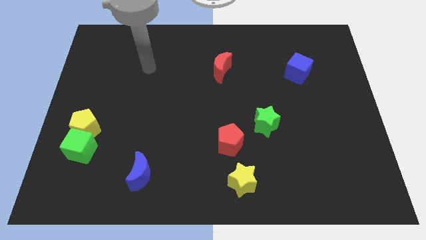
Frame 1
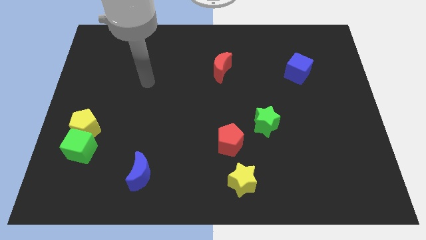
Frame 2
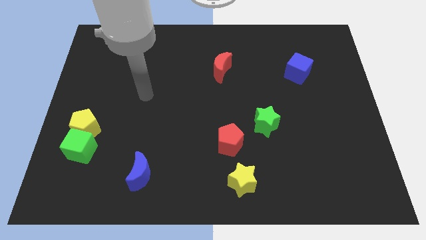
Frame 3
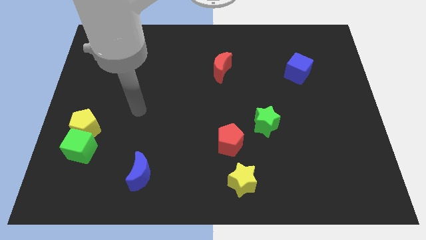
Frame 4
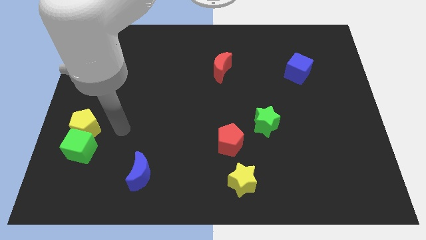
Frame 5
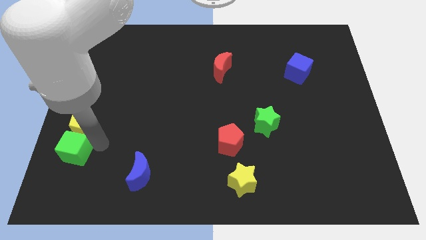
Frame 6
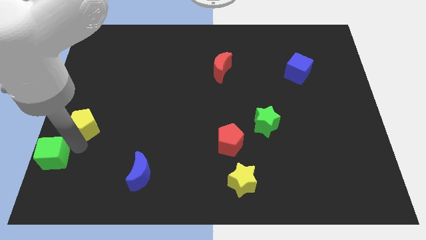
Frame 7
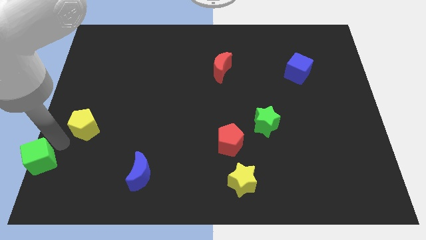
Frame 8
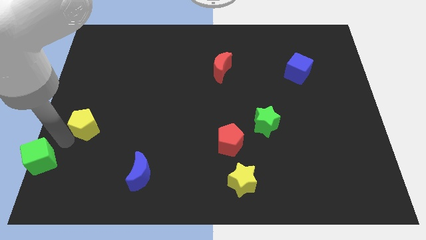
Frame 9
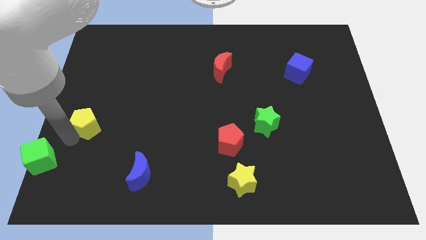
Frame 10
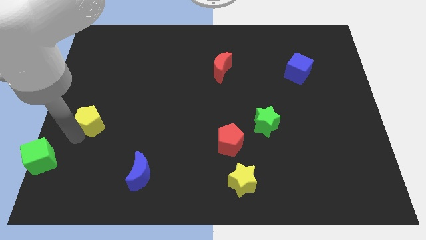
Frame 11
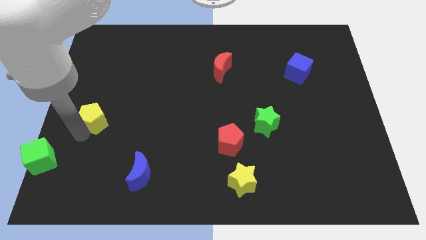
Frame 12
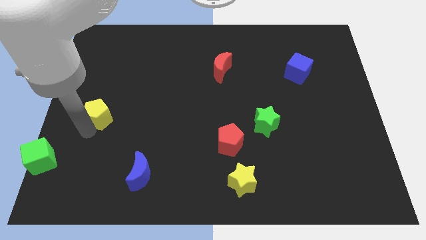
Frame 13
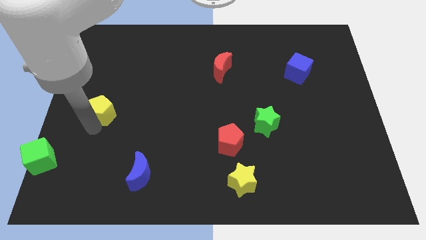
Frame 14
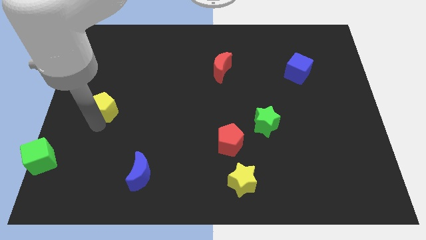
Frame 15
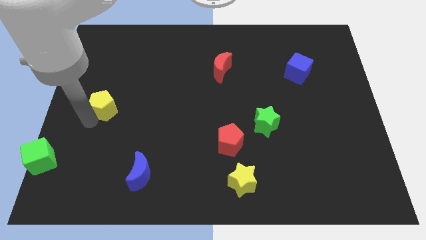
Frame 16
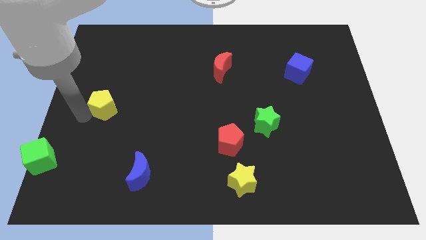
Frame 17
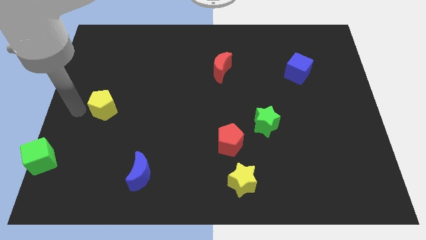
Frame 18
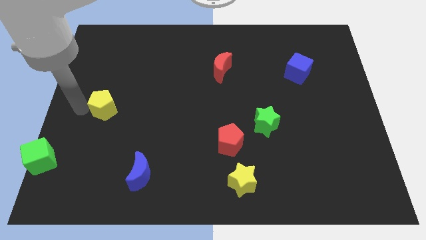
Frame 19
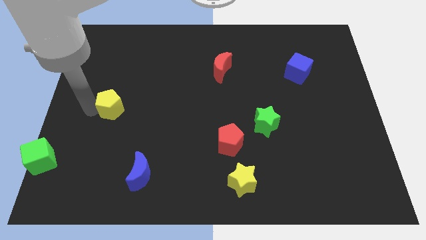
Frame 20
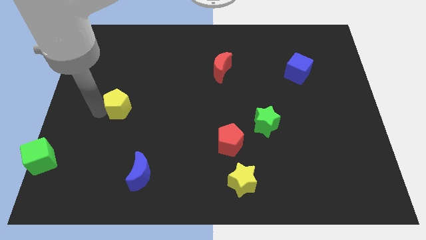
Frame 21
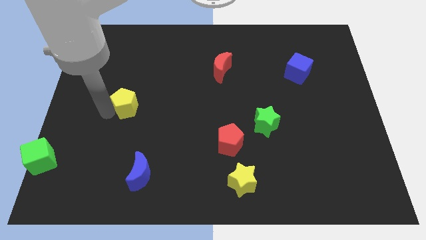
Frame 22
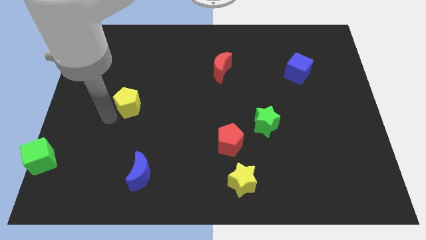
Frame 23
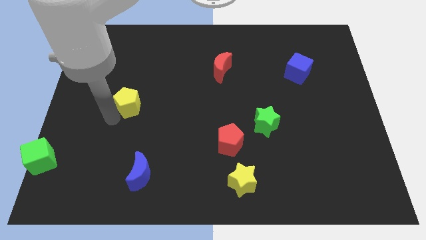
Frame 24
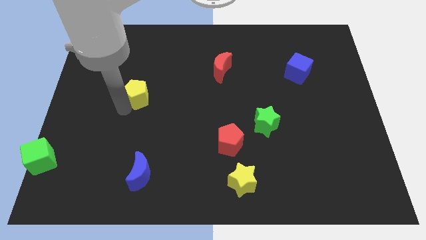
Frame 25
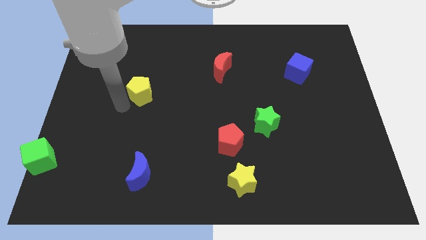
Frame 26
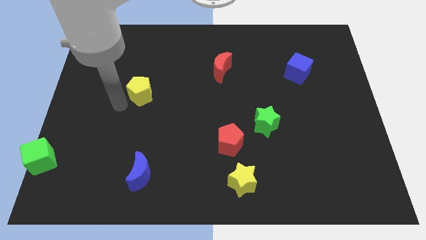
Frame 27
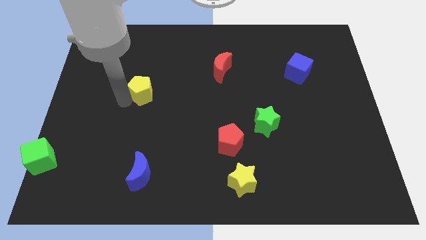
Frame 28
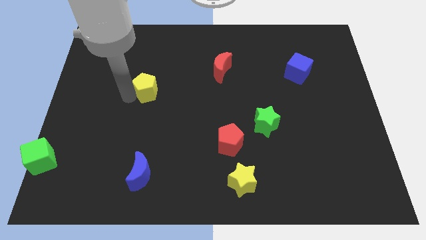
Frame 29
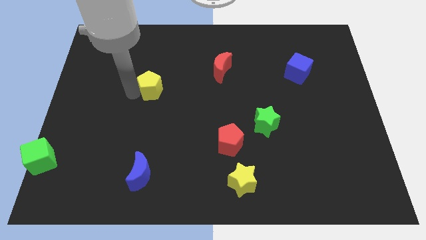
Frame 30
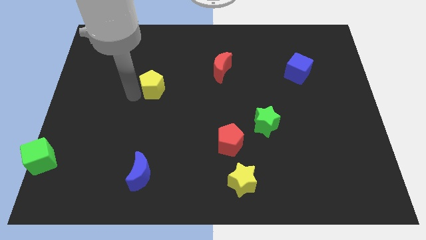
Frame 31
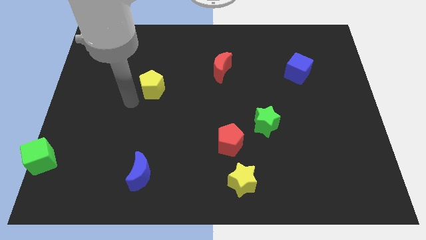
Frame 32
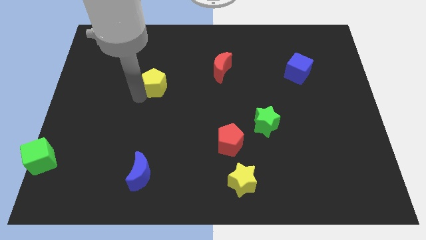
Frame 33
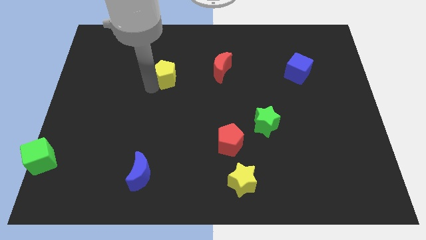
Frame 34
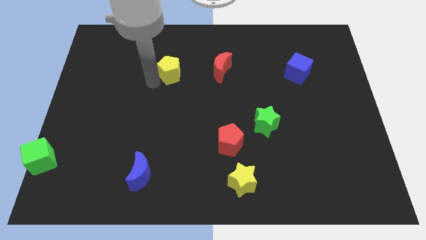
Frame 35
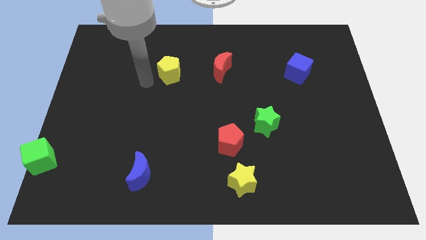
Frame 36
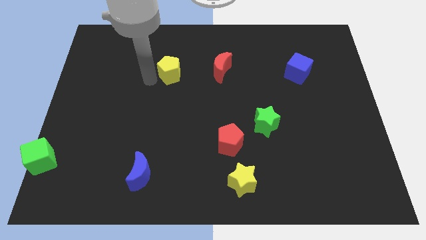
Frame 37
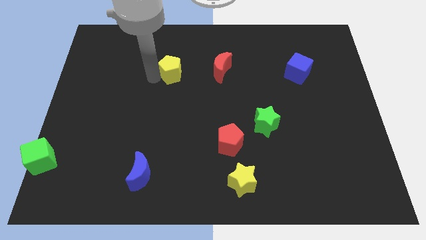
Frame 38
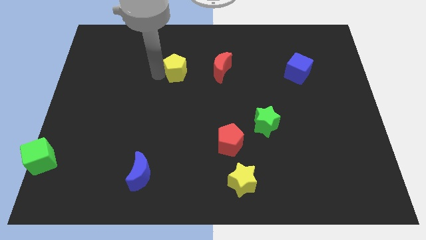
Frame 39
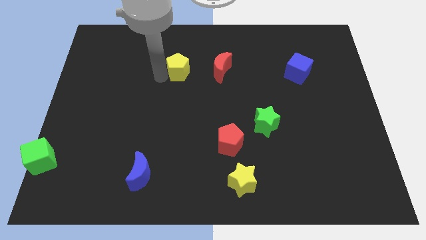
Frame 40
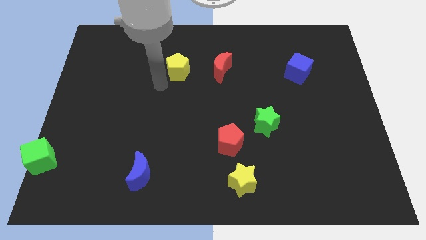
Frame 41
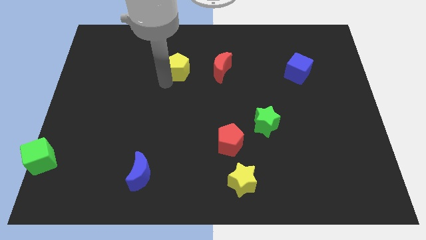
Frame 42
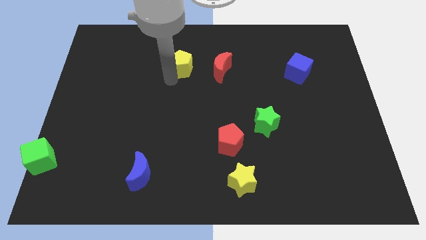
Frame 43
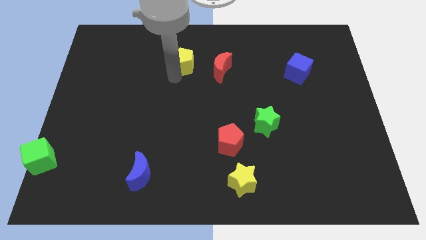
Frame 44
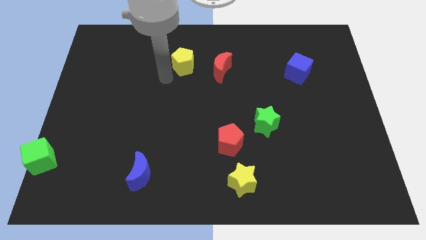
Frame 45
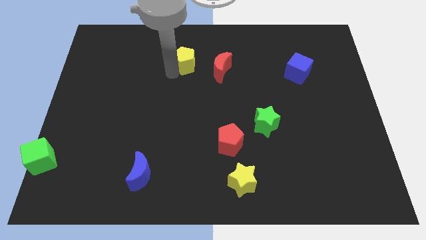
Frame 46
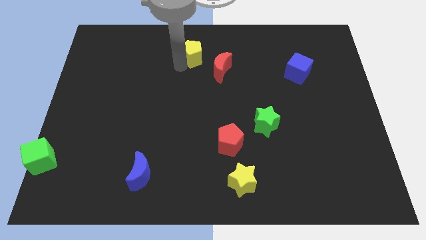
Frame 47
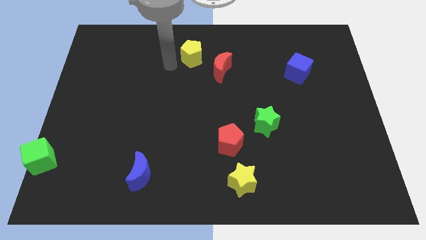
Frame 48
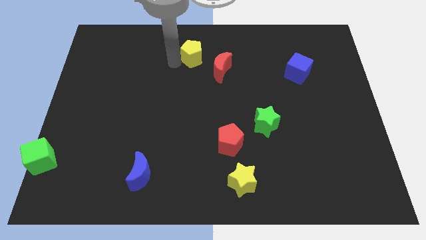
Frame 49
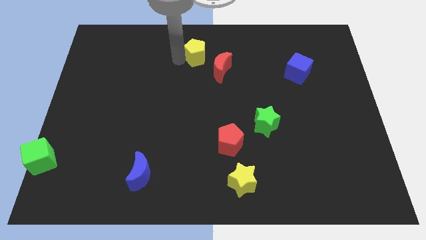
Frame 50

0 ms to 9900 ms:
slide the yellow pentagon to the top

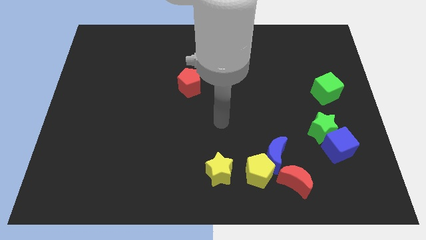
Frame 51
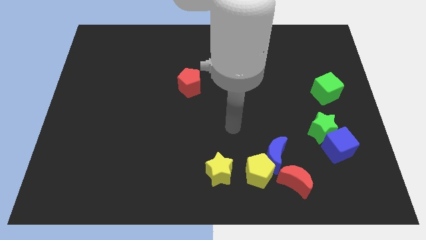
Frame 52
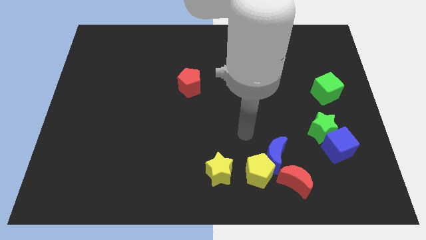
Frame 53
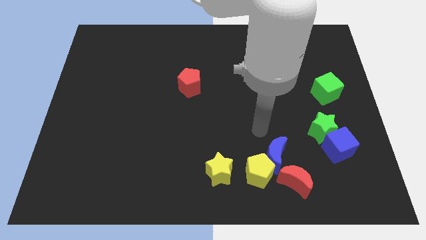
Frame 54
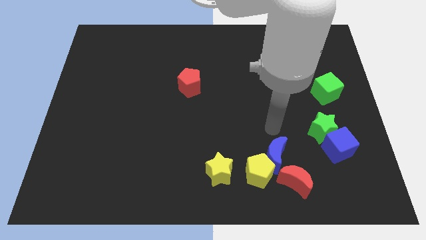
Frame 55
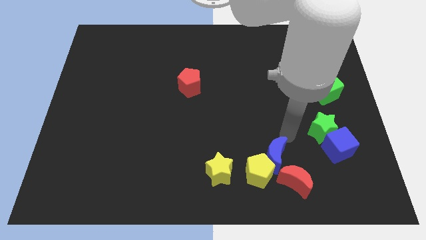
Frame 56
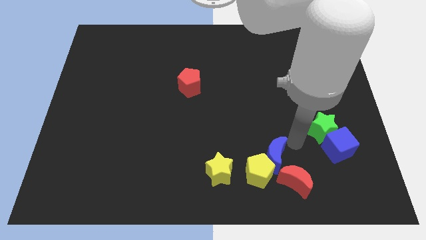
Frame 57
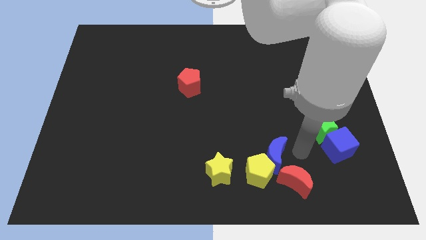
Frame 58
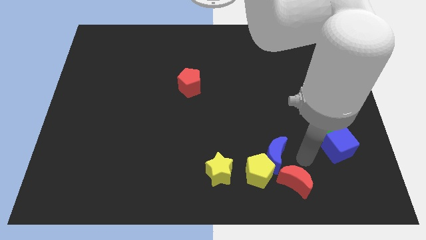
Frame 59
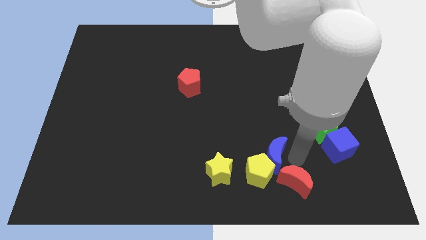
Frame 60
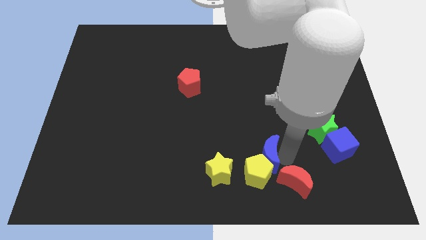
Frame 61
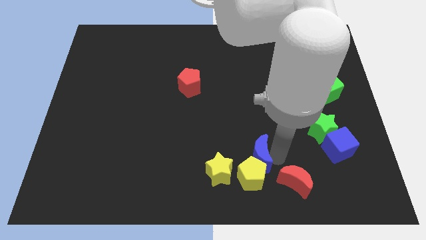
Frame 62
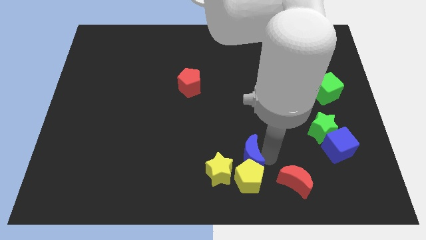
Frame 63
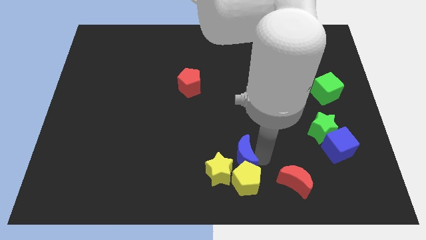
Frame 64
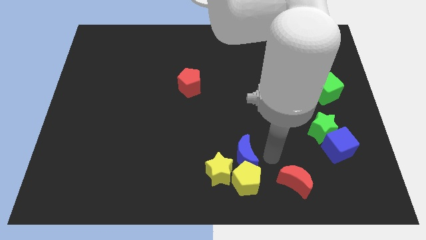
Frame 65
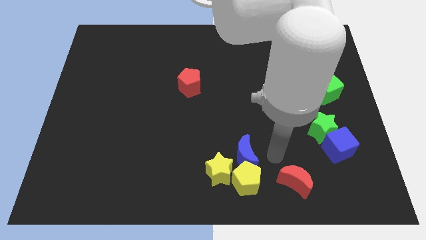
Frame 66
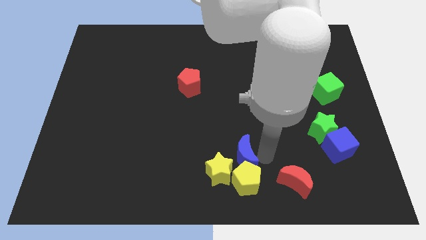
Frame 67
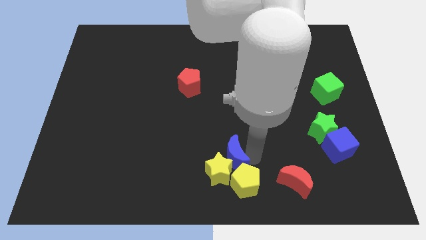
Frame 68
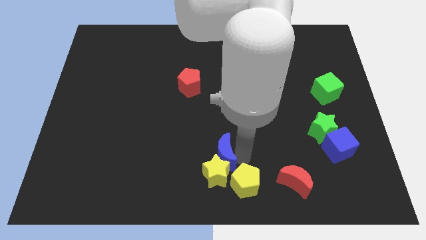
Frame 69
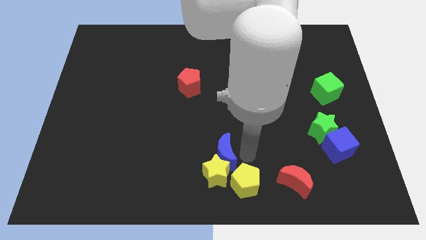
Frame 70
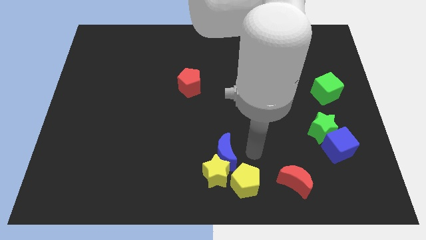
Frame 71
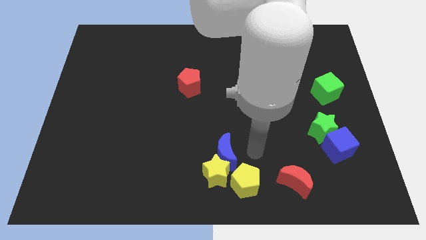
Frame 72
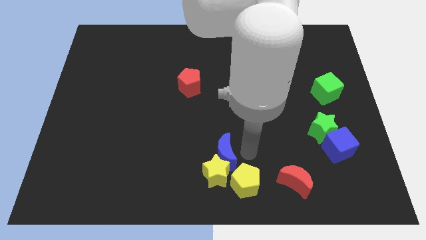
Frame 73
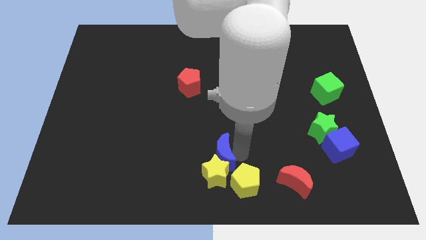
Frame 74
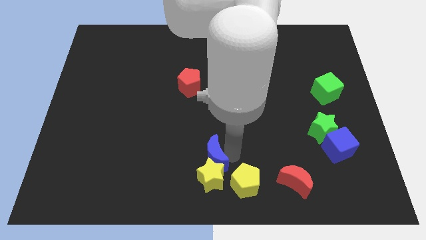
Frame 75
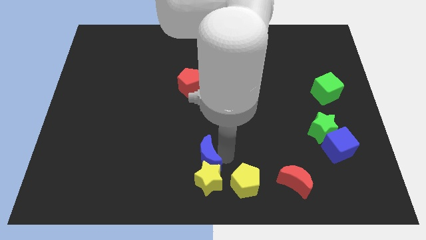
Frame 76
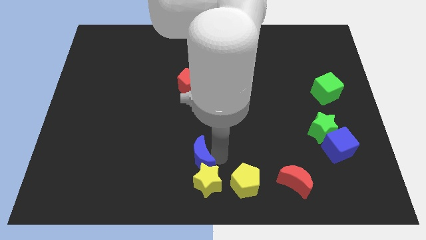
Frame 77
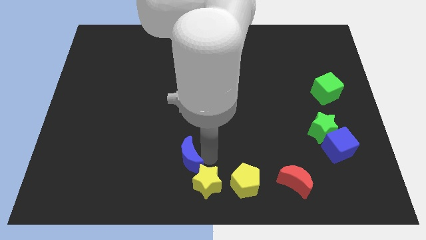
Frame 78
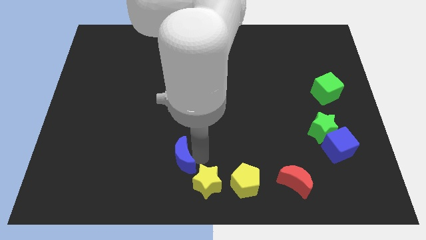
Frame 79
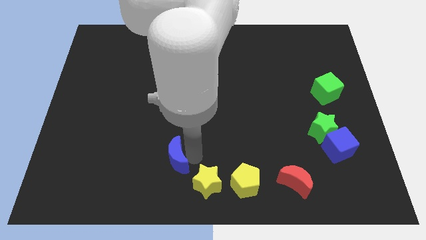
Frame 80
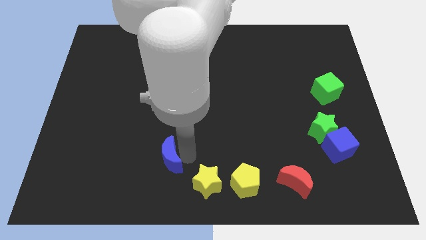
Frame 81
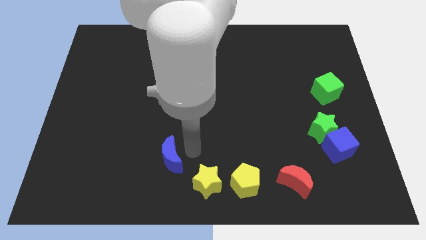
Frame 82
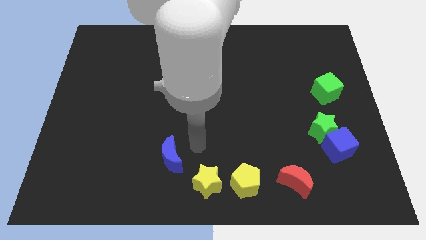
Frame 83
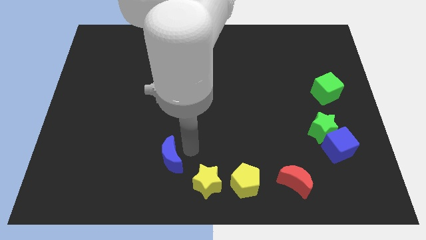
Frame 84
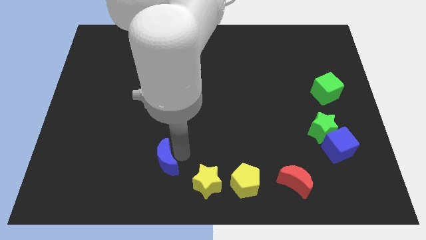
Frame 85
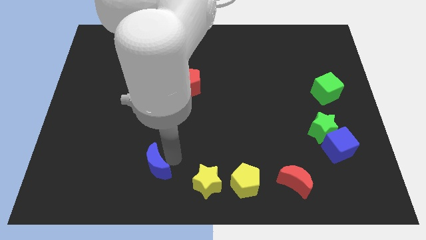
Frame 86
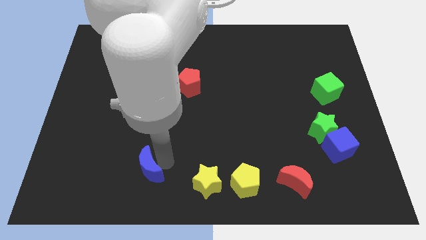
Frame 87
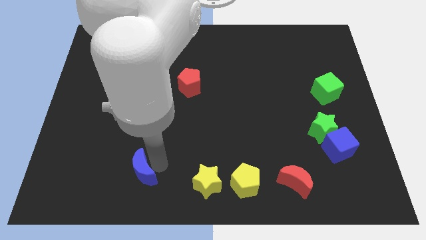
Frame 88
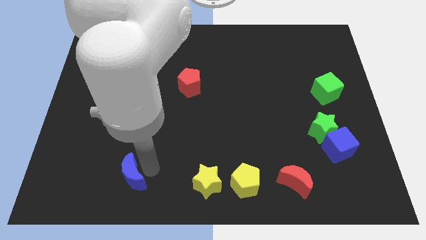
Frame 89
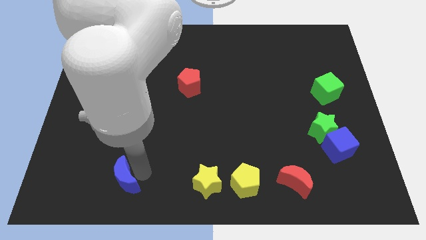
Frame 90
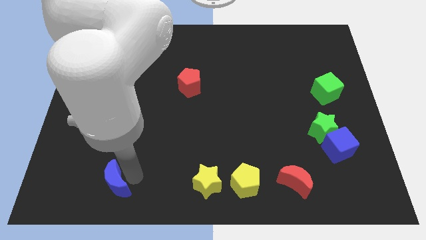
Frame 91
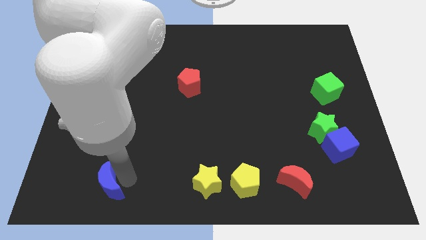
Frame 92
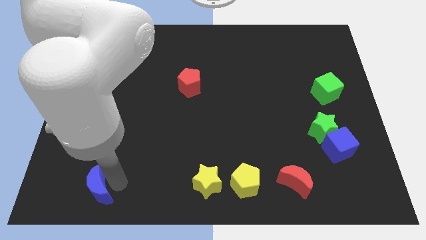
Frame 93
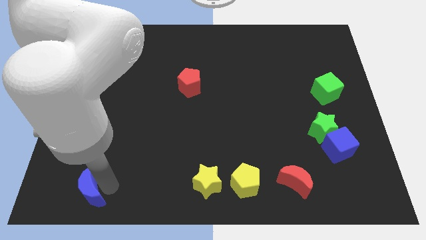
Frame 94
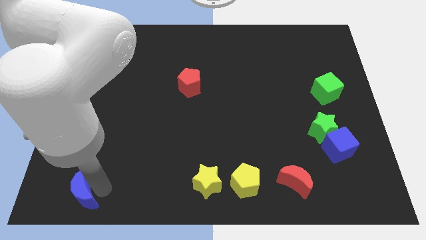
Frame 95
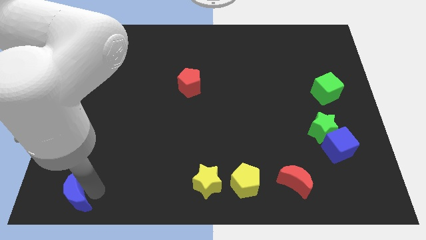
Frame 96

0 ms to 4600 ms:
move the blue moon to the bottom left corner
